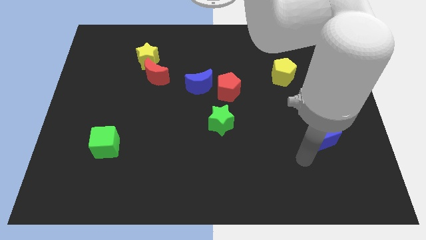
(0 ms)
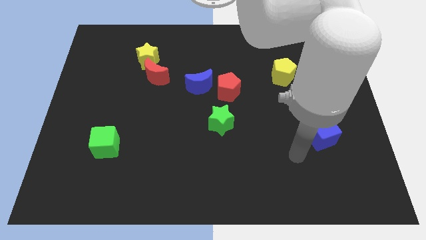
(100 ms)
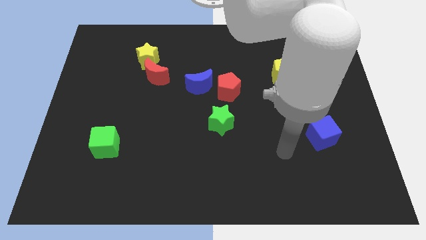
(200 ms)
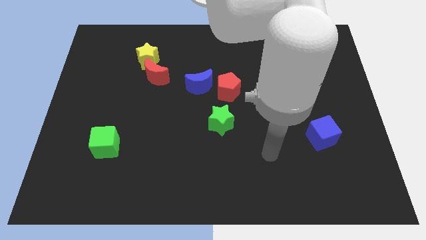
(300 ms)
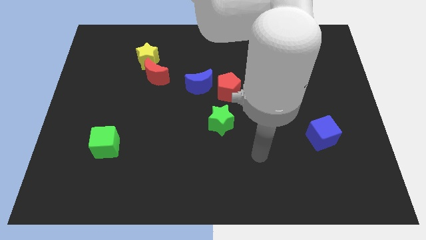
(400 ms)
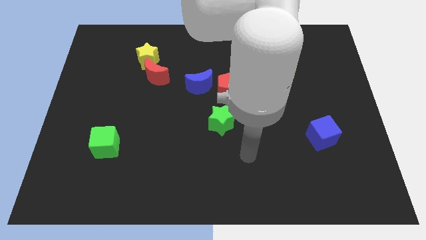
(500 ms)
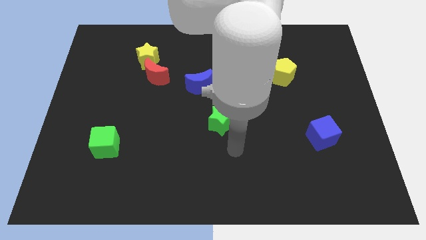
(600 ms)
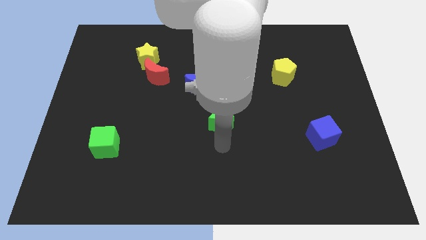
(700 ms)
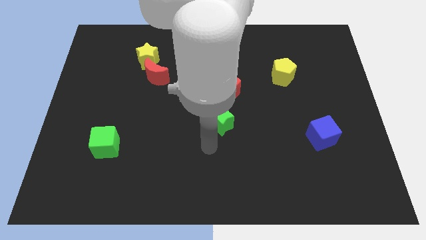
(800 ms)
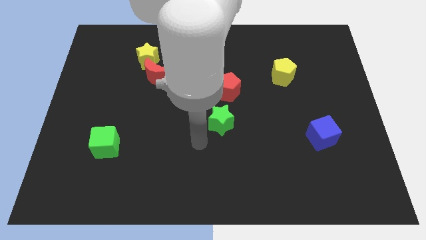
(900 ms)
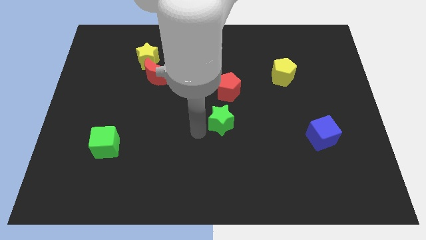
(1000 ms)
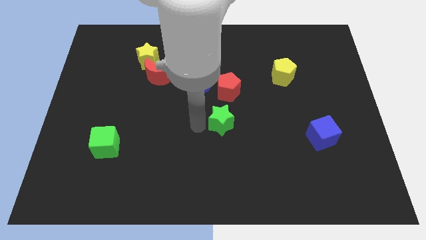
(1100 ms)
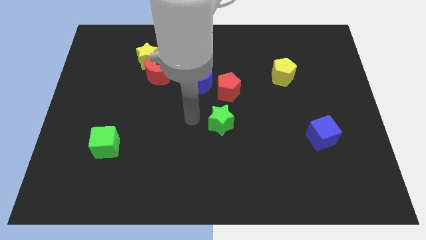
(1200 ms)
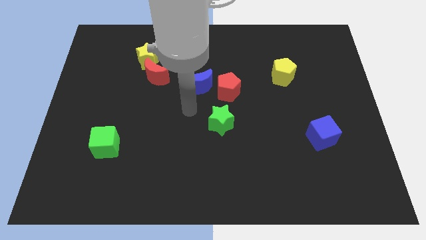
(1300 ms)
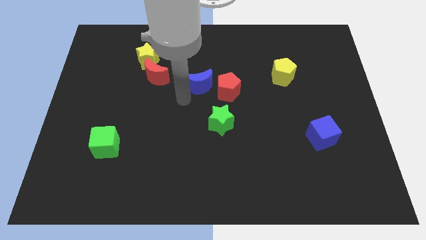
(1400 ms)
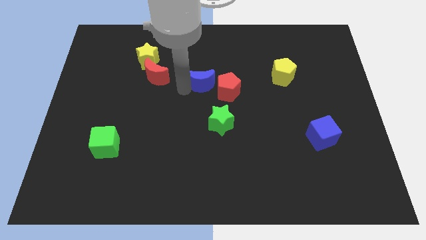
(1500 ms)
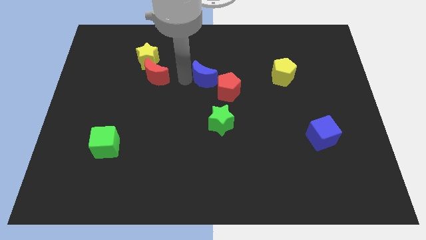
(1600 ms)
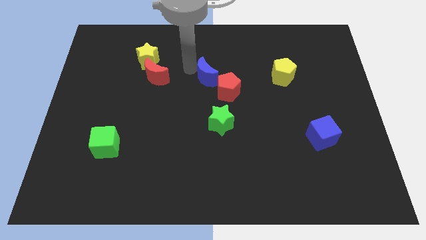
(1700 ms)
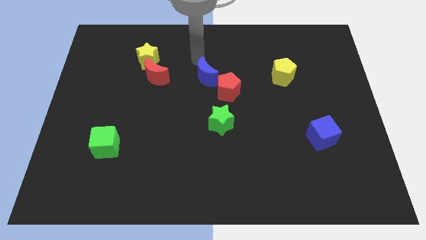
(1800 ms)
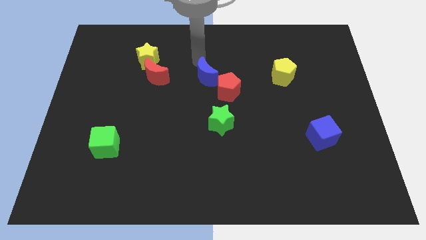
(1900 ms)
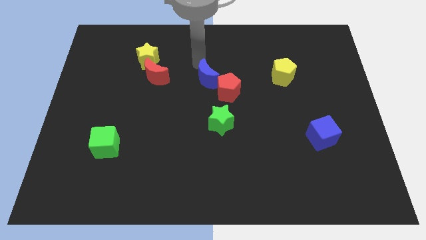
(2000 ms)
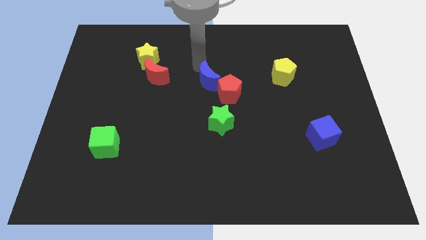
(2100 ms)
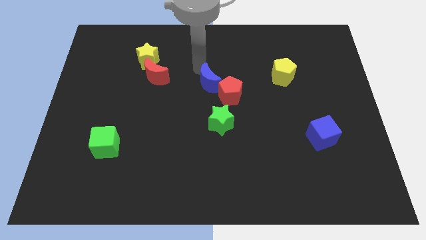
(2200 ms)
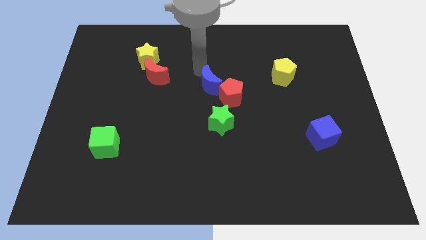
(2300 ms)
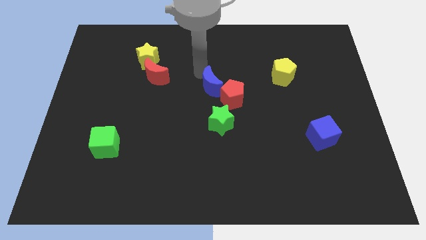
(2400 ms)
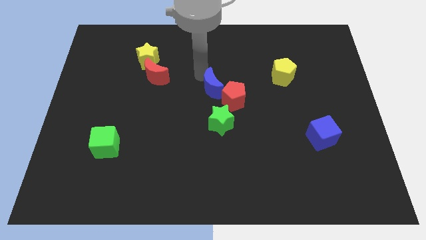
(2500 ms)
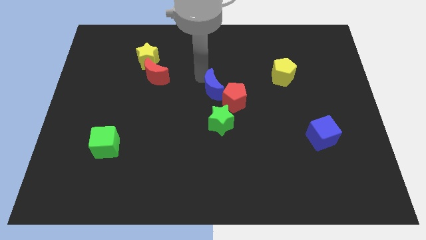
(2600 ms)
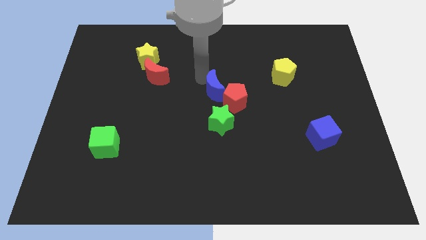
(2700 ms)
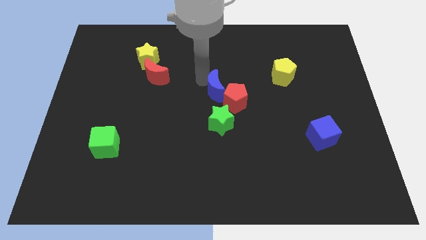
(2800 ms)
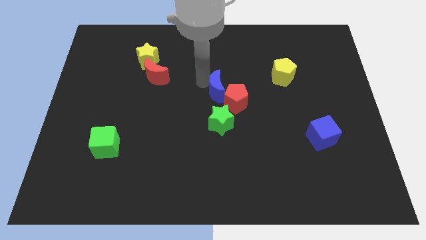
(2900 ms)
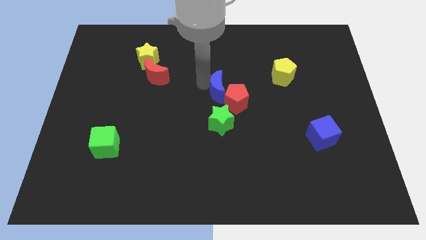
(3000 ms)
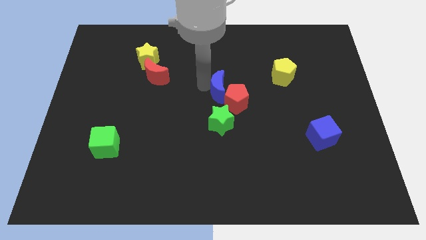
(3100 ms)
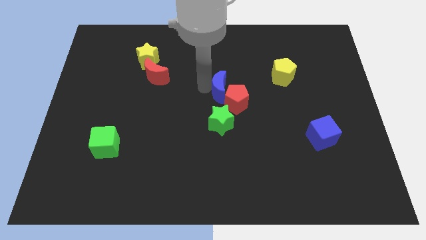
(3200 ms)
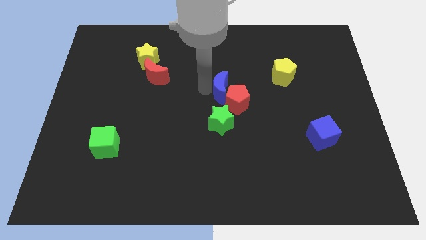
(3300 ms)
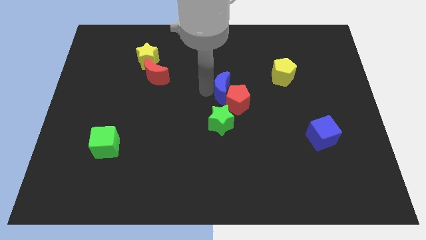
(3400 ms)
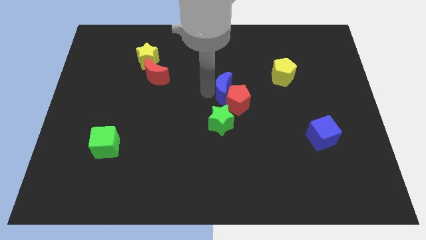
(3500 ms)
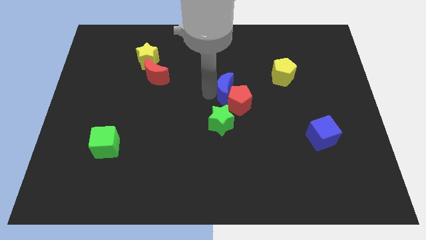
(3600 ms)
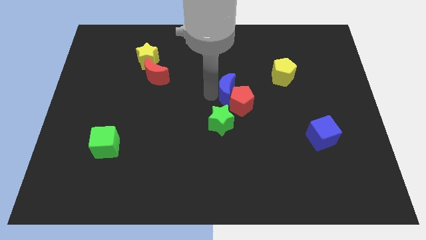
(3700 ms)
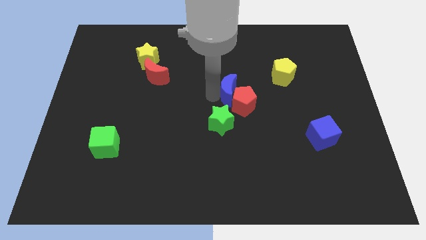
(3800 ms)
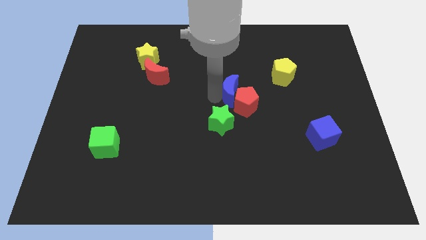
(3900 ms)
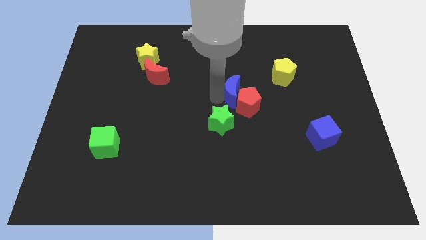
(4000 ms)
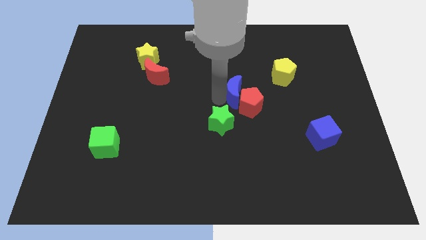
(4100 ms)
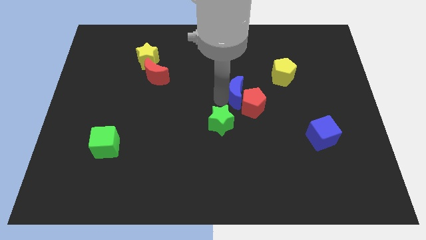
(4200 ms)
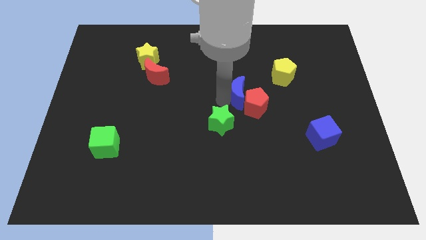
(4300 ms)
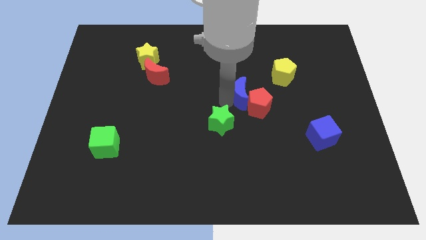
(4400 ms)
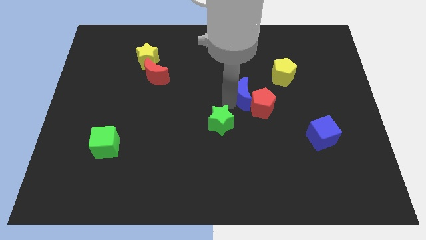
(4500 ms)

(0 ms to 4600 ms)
push the blue moon to the bottom left of the yellow pentagon

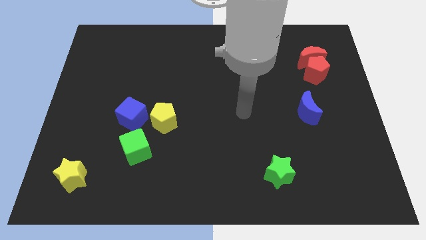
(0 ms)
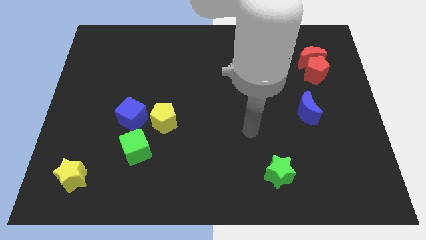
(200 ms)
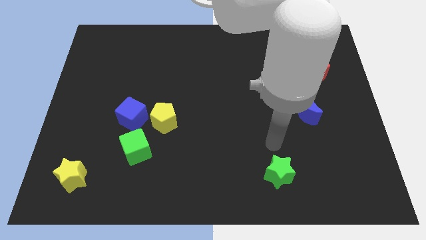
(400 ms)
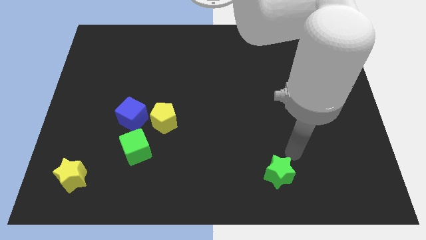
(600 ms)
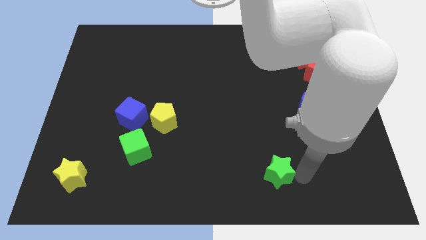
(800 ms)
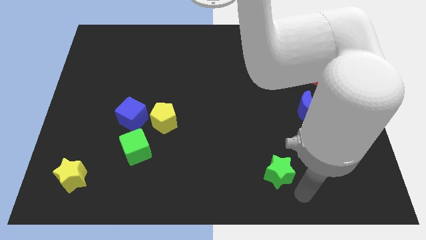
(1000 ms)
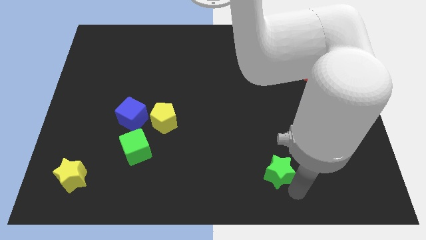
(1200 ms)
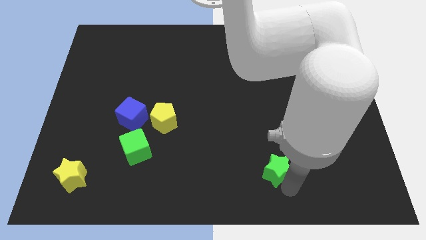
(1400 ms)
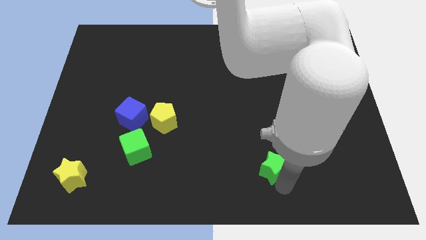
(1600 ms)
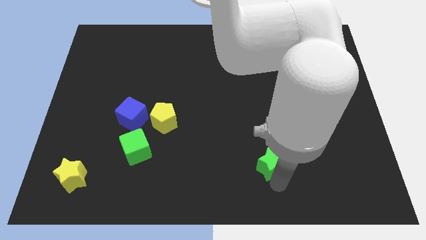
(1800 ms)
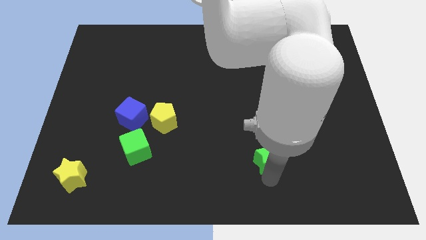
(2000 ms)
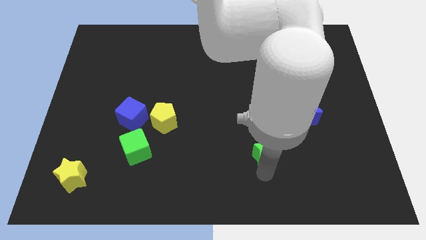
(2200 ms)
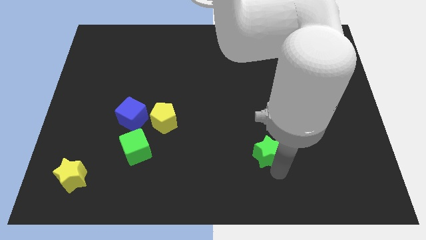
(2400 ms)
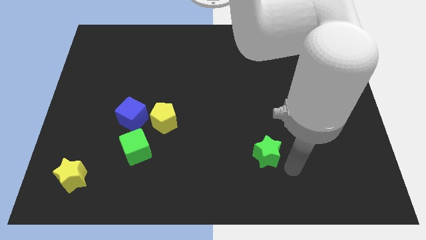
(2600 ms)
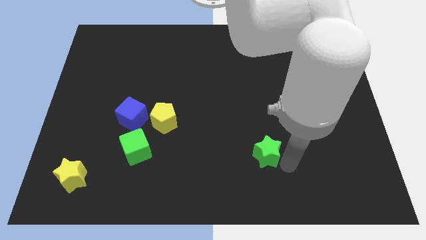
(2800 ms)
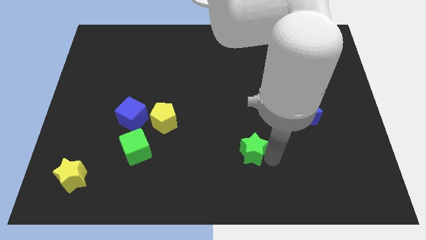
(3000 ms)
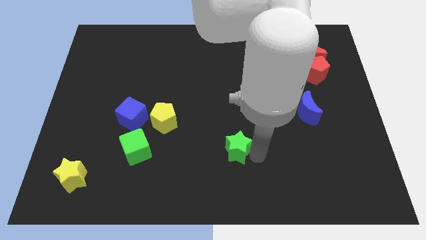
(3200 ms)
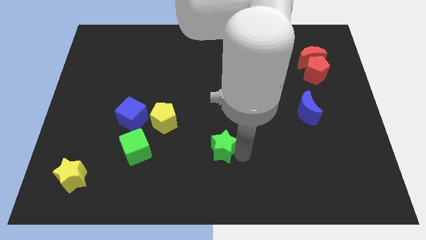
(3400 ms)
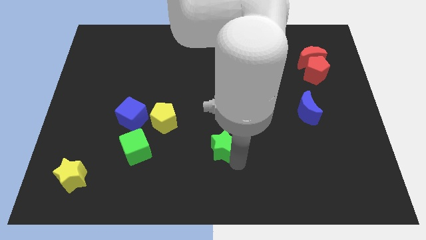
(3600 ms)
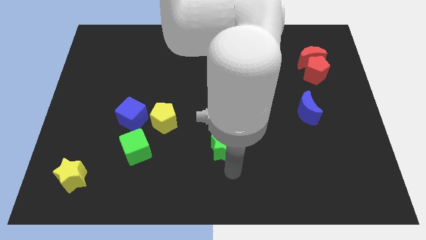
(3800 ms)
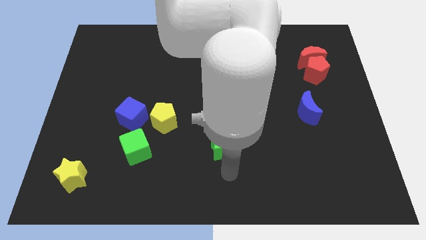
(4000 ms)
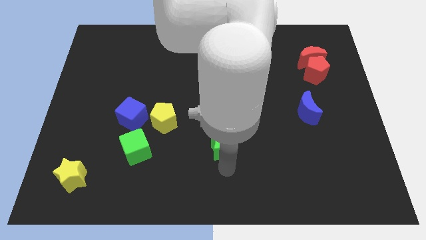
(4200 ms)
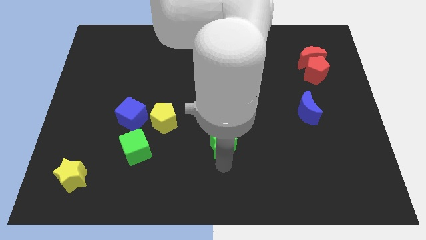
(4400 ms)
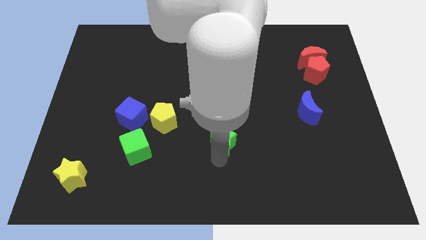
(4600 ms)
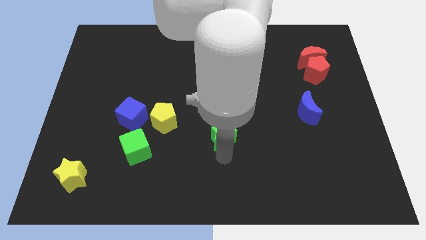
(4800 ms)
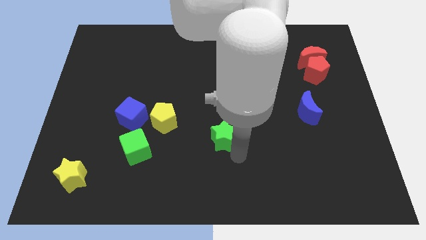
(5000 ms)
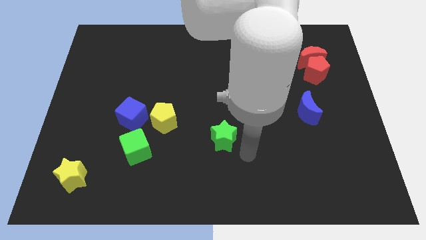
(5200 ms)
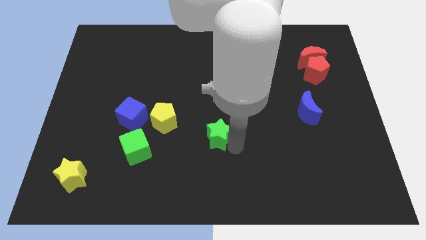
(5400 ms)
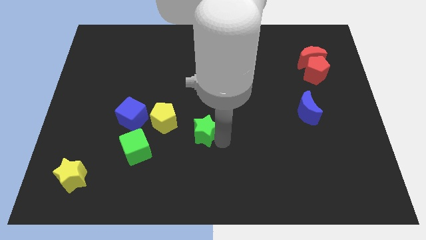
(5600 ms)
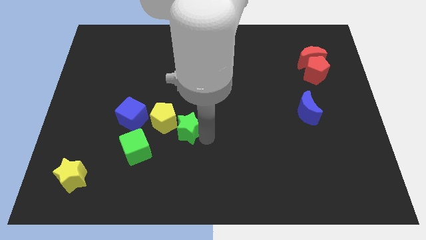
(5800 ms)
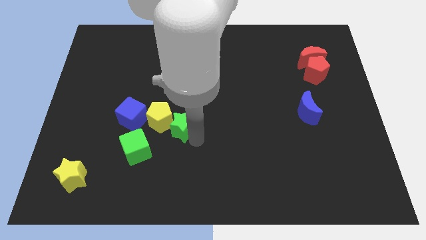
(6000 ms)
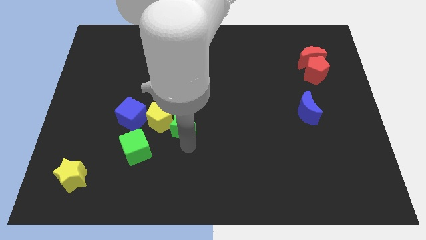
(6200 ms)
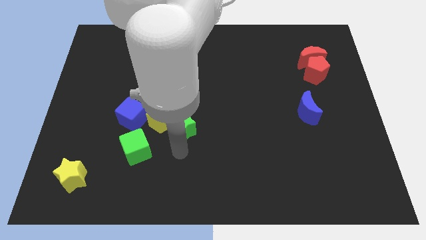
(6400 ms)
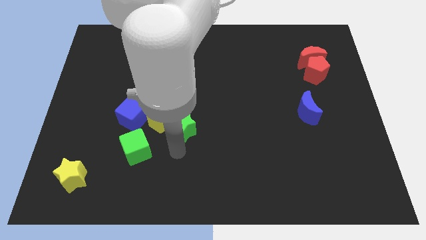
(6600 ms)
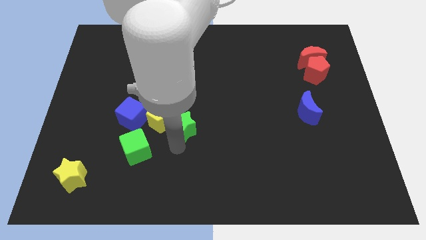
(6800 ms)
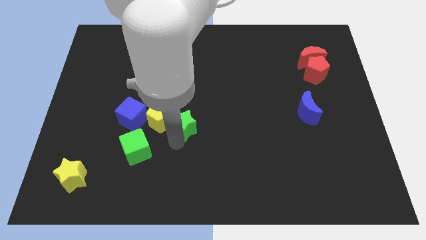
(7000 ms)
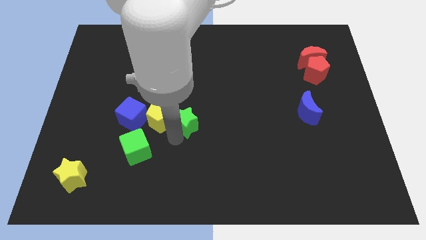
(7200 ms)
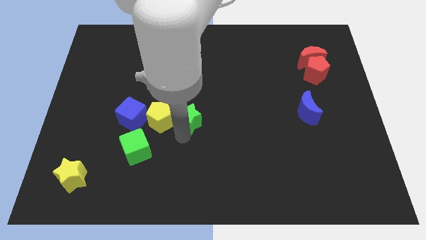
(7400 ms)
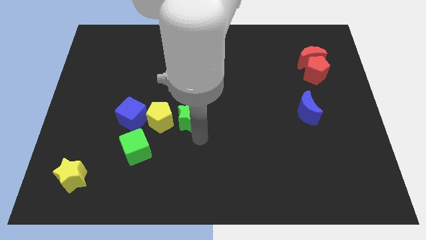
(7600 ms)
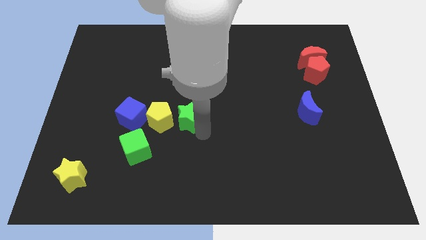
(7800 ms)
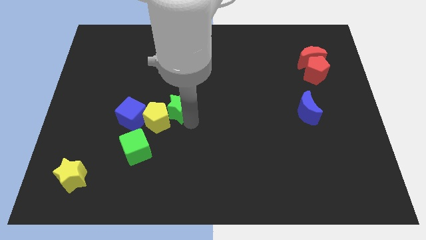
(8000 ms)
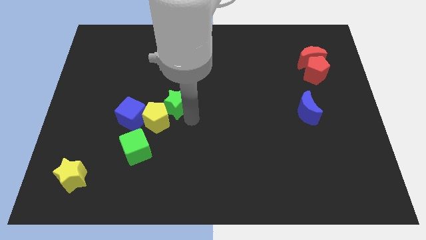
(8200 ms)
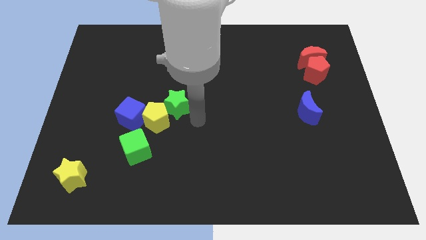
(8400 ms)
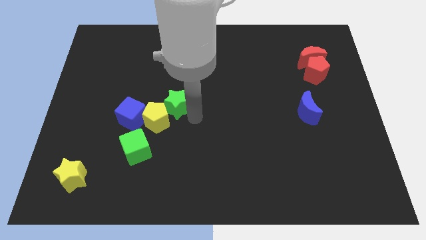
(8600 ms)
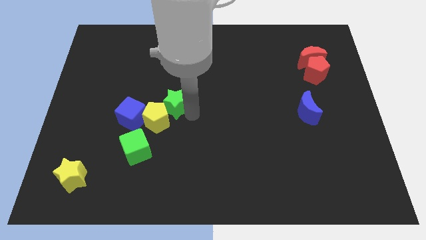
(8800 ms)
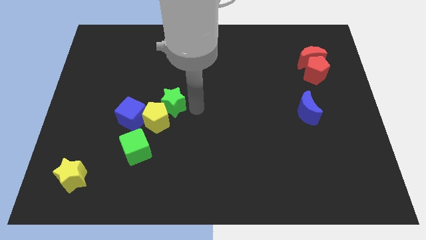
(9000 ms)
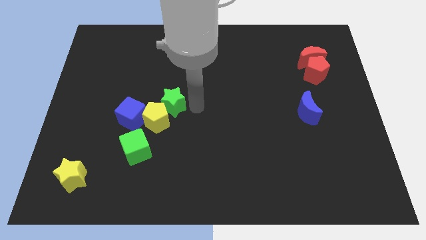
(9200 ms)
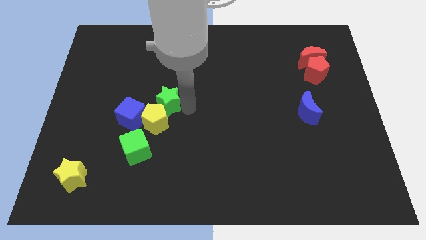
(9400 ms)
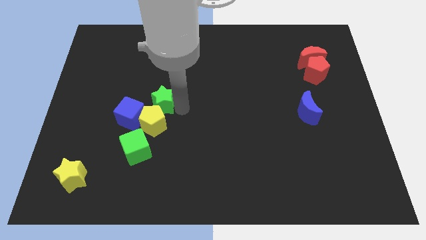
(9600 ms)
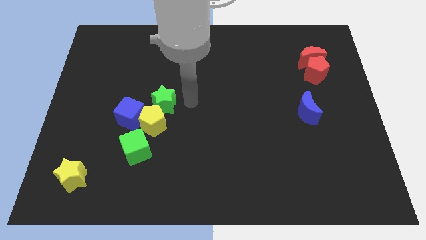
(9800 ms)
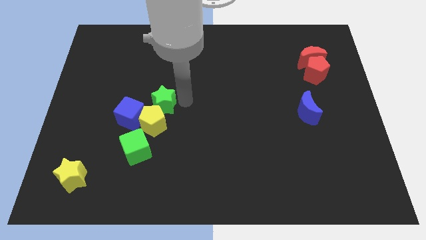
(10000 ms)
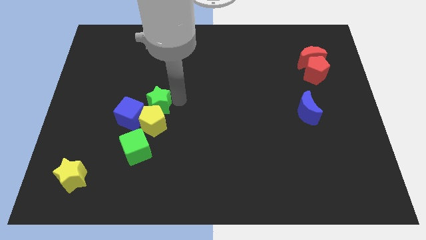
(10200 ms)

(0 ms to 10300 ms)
put the green star to the top left side of the yellow pentagon
